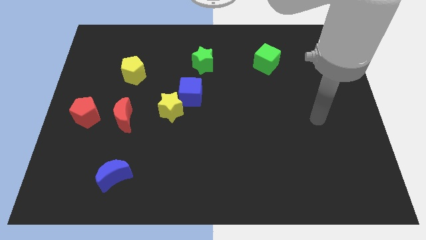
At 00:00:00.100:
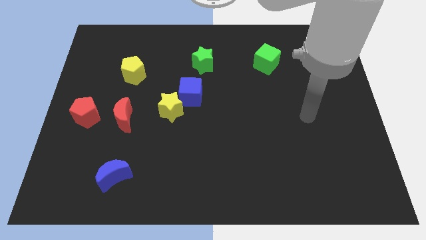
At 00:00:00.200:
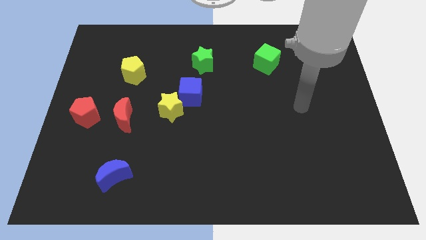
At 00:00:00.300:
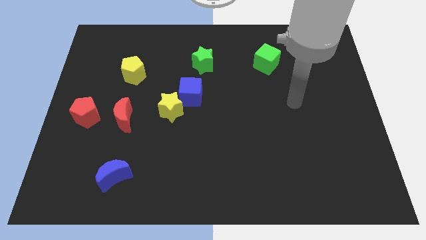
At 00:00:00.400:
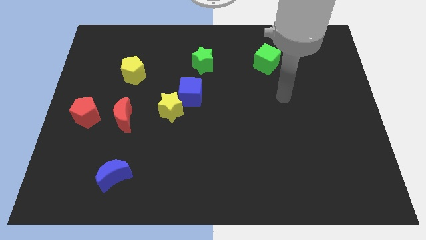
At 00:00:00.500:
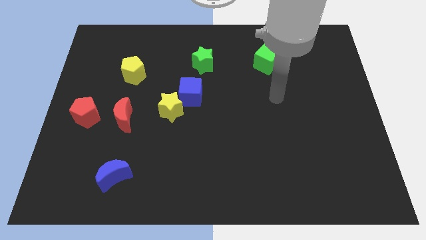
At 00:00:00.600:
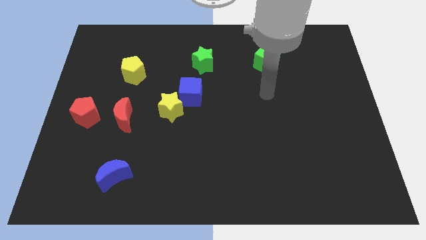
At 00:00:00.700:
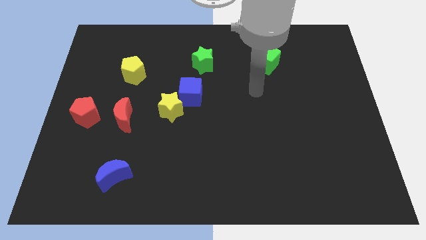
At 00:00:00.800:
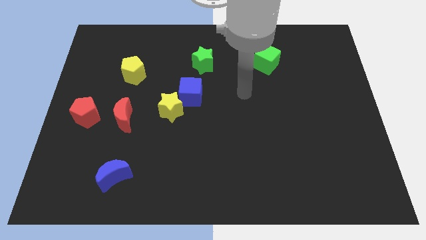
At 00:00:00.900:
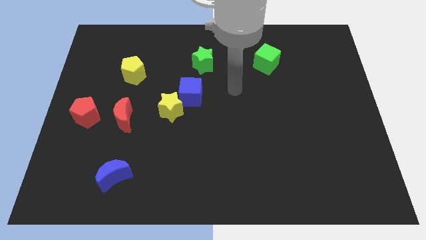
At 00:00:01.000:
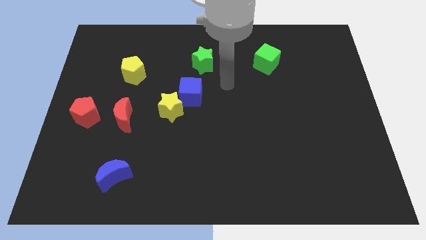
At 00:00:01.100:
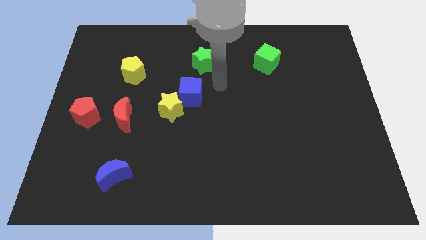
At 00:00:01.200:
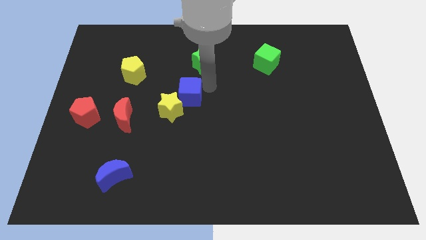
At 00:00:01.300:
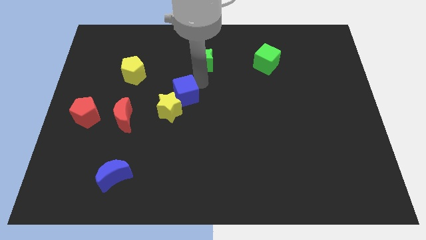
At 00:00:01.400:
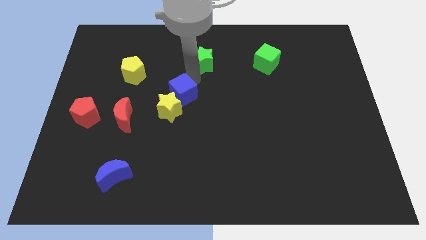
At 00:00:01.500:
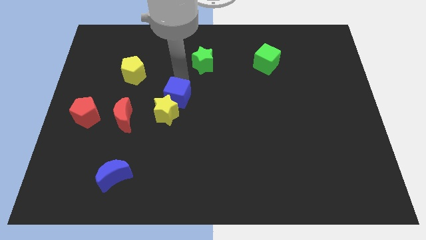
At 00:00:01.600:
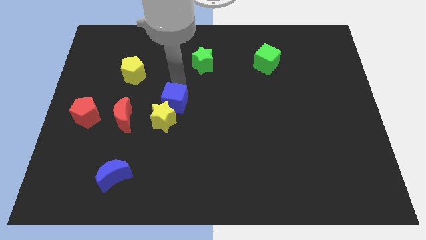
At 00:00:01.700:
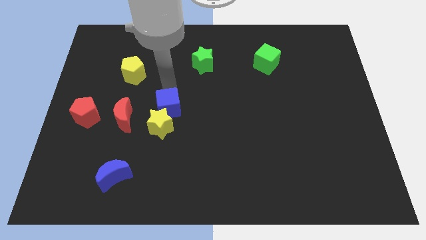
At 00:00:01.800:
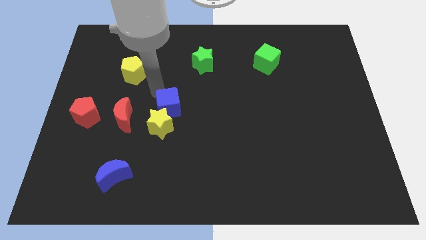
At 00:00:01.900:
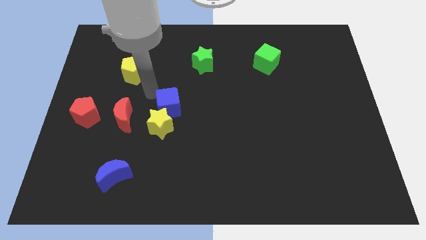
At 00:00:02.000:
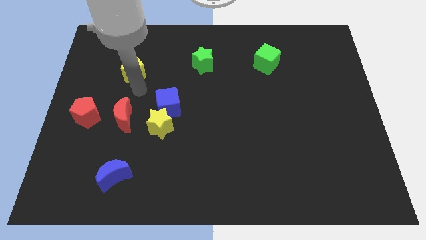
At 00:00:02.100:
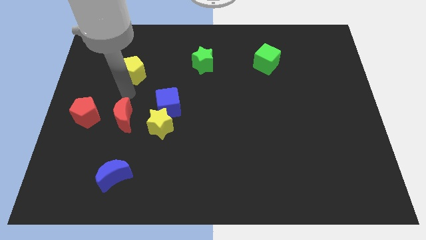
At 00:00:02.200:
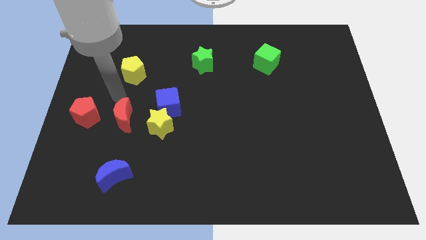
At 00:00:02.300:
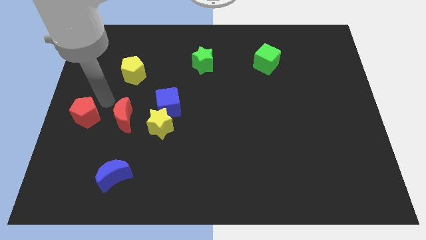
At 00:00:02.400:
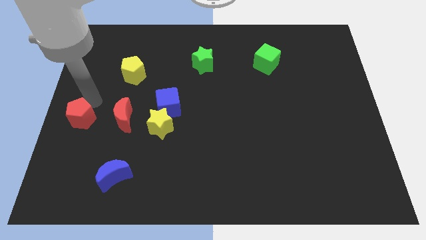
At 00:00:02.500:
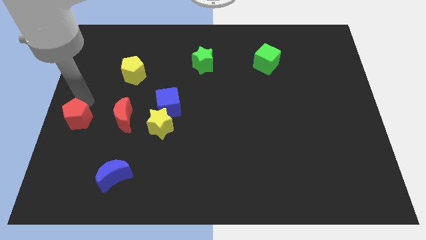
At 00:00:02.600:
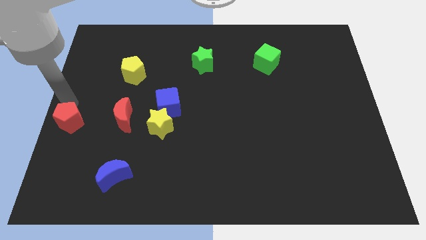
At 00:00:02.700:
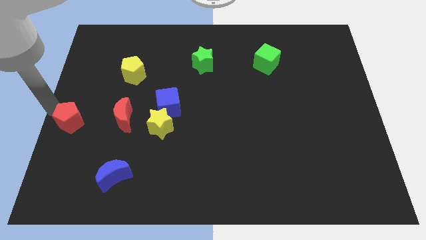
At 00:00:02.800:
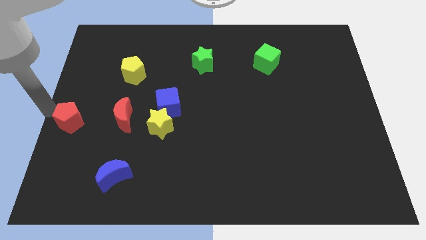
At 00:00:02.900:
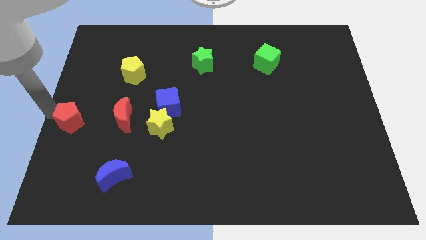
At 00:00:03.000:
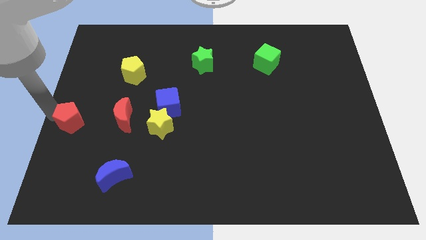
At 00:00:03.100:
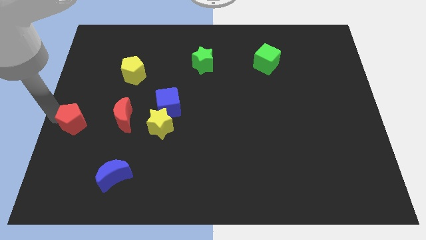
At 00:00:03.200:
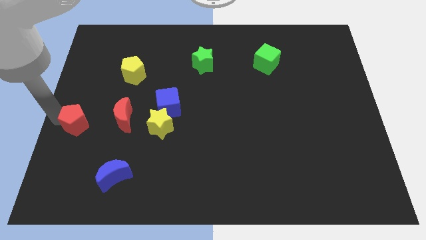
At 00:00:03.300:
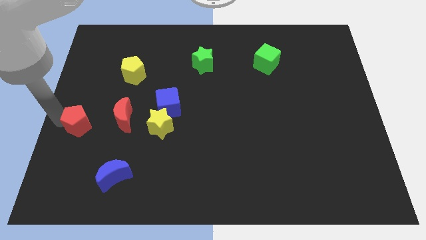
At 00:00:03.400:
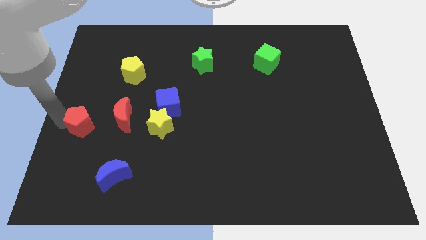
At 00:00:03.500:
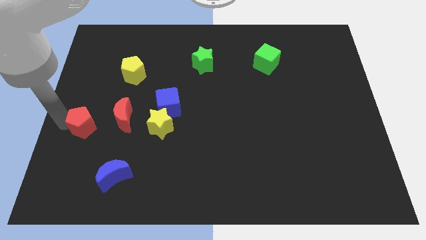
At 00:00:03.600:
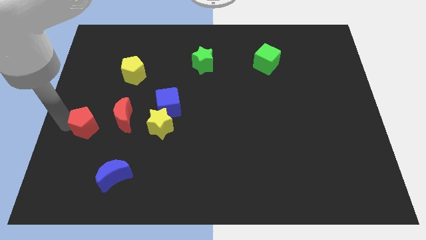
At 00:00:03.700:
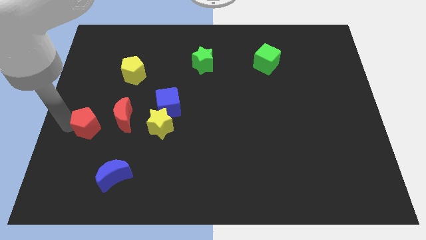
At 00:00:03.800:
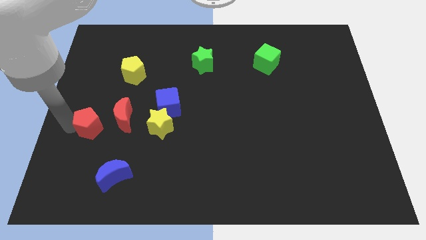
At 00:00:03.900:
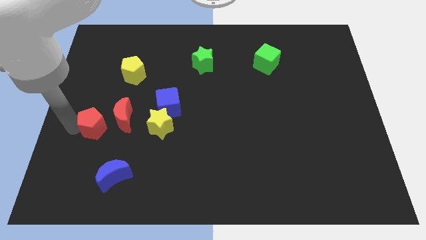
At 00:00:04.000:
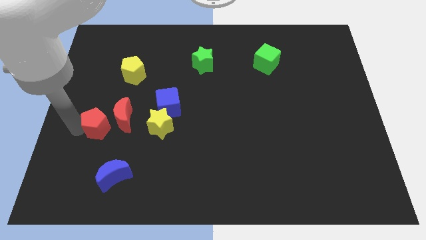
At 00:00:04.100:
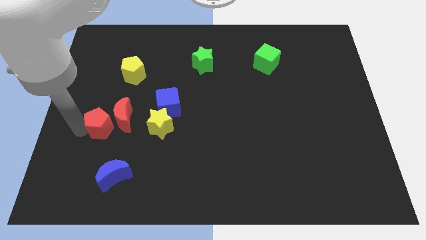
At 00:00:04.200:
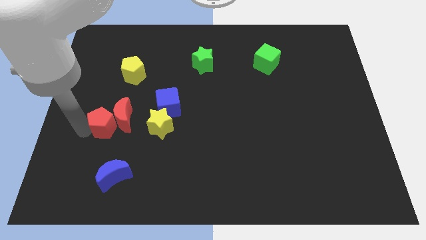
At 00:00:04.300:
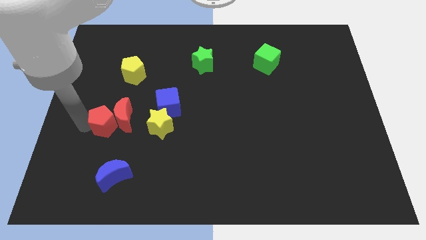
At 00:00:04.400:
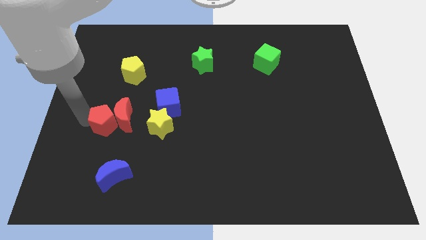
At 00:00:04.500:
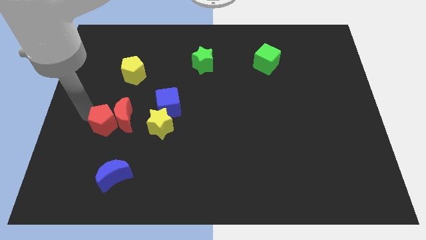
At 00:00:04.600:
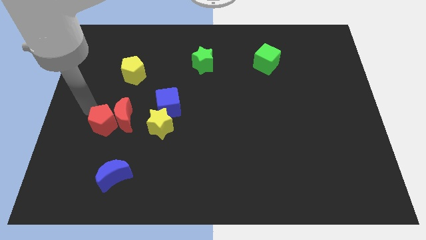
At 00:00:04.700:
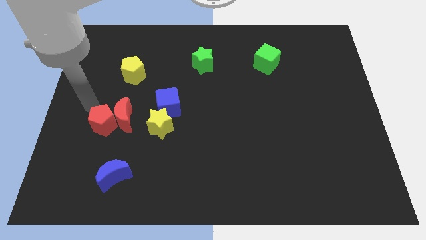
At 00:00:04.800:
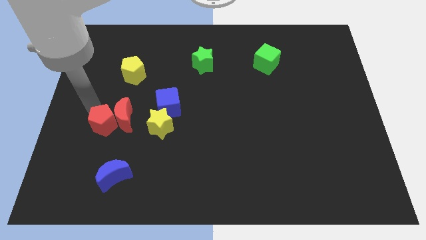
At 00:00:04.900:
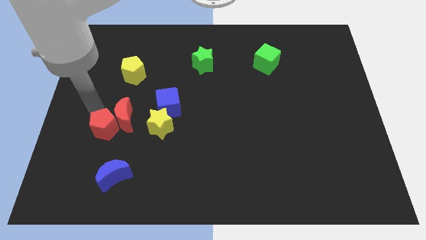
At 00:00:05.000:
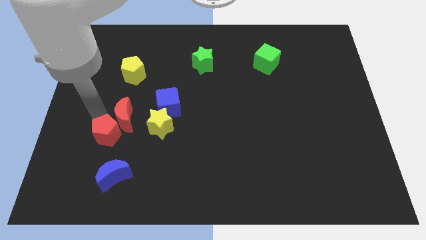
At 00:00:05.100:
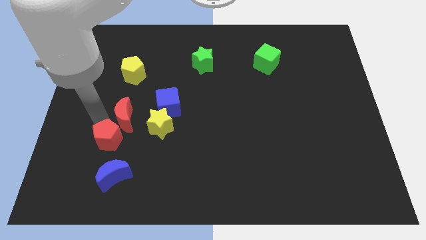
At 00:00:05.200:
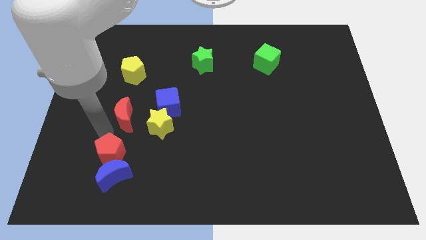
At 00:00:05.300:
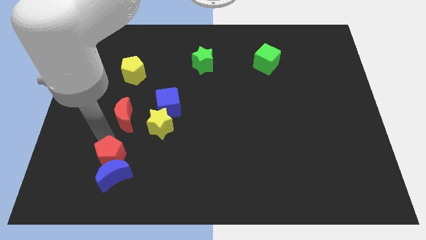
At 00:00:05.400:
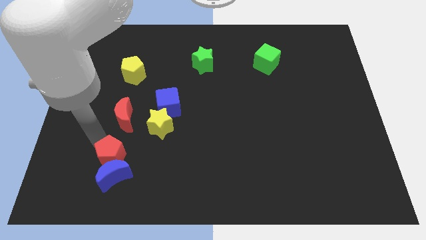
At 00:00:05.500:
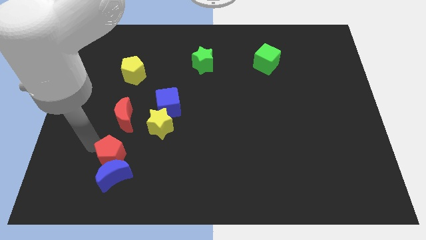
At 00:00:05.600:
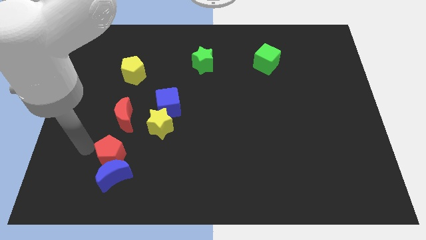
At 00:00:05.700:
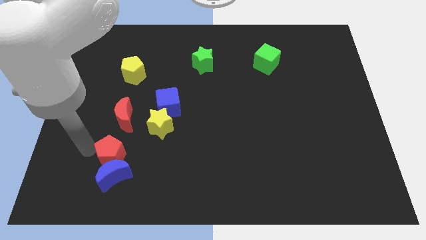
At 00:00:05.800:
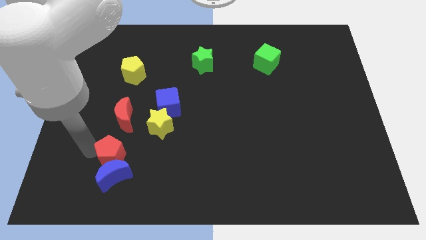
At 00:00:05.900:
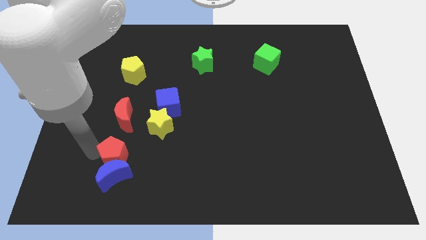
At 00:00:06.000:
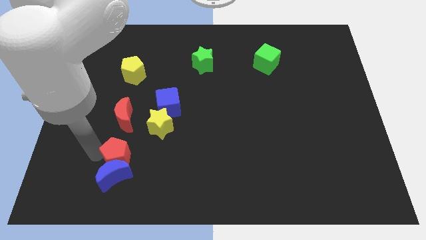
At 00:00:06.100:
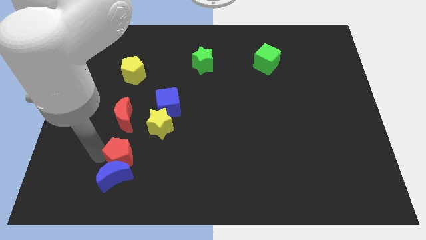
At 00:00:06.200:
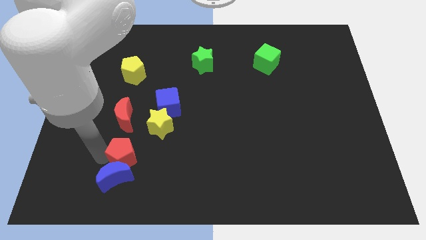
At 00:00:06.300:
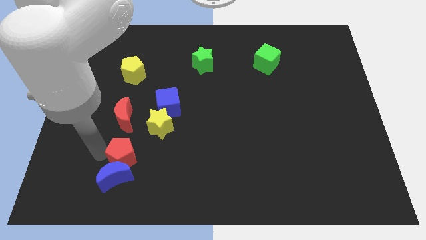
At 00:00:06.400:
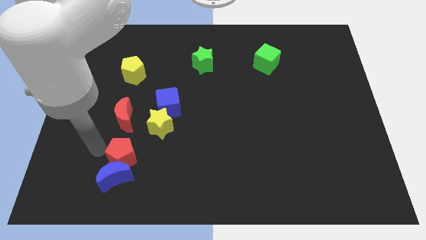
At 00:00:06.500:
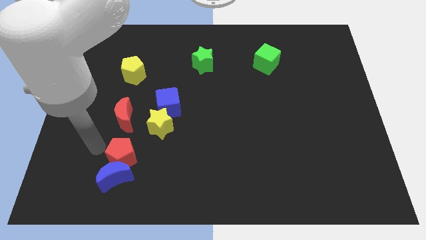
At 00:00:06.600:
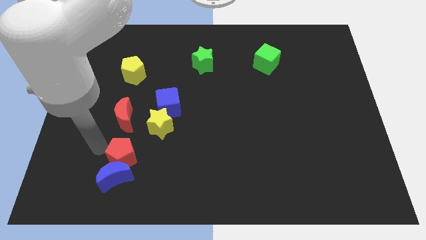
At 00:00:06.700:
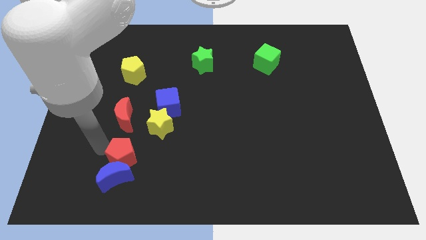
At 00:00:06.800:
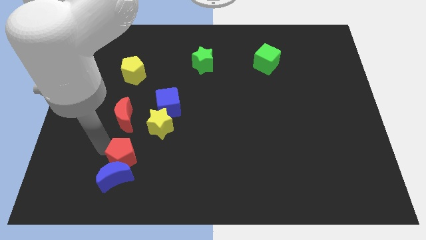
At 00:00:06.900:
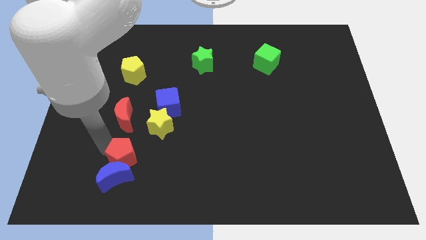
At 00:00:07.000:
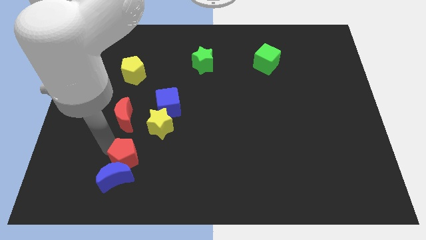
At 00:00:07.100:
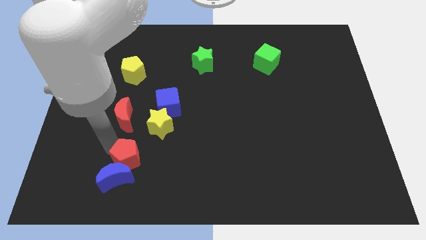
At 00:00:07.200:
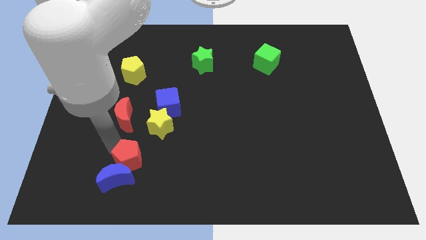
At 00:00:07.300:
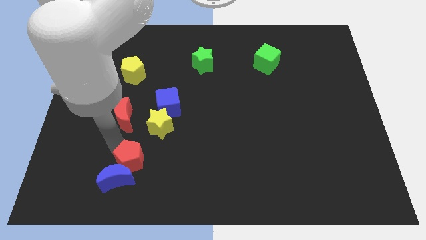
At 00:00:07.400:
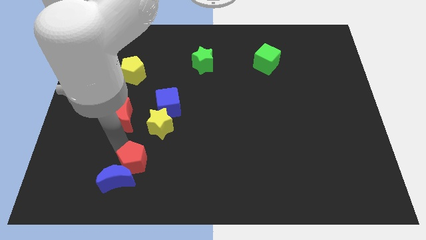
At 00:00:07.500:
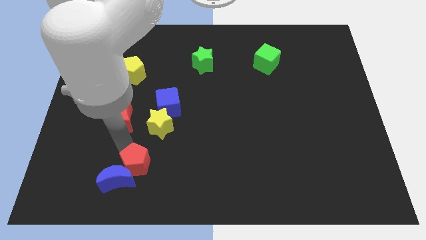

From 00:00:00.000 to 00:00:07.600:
put the red pentagon to the right of the blue moon

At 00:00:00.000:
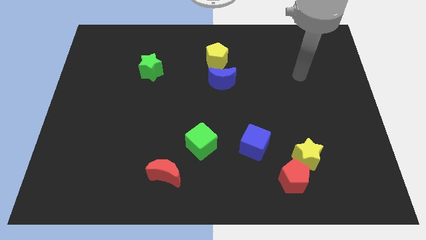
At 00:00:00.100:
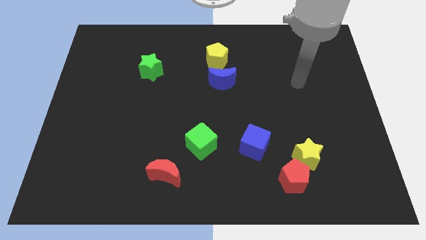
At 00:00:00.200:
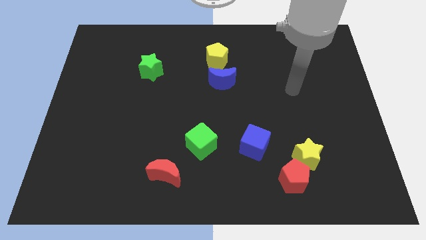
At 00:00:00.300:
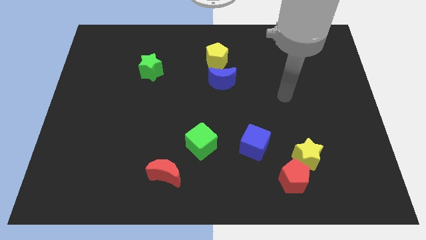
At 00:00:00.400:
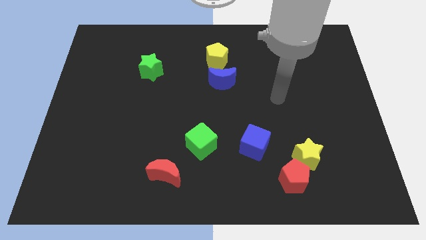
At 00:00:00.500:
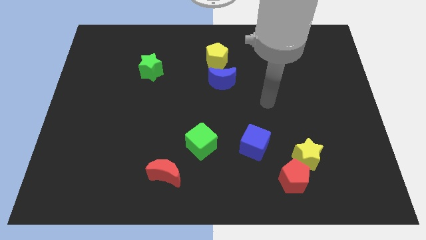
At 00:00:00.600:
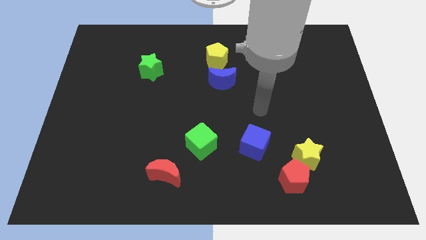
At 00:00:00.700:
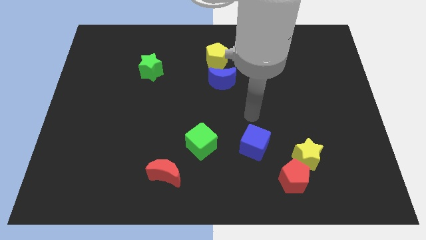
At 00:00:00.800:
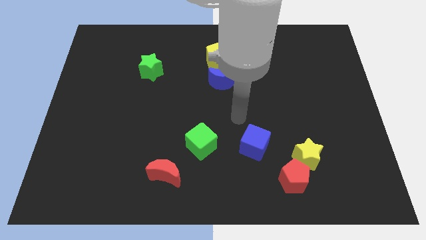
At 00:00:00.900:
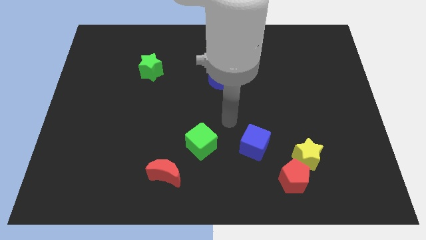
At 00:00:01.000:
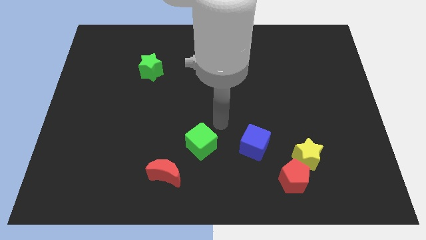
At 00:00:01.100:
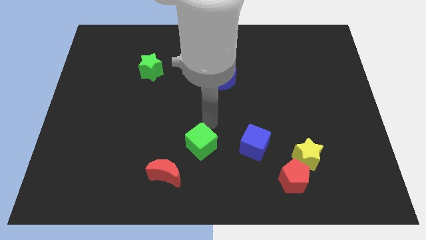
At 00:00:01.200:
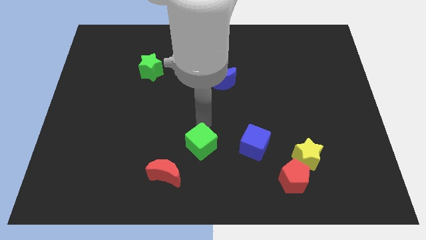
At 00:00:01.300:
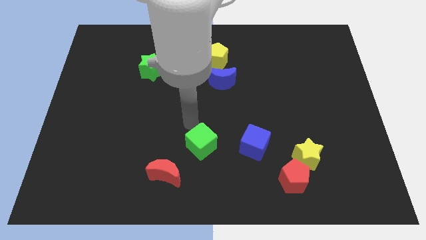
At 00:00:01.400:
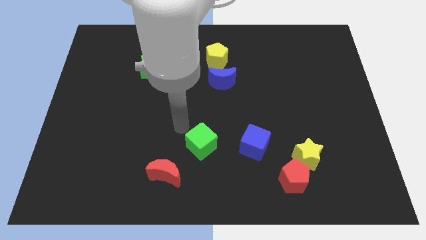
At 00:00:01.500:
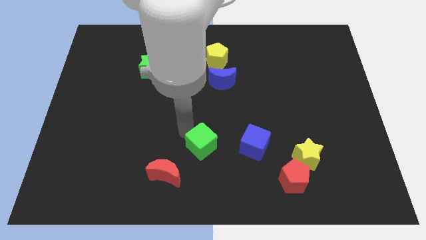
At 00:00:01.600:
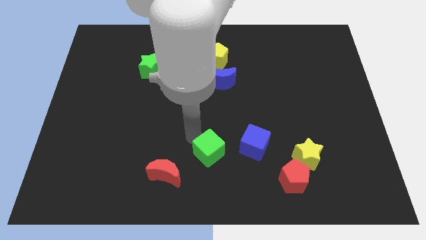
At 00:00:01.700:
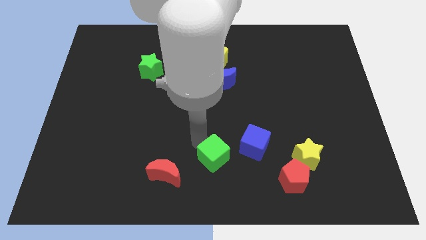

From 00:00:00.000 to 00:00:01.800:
push the green cube to the bottom left of the blue cube
